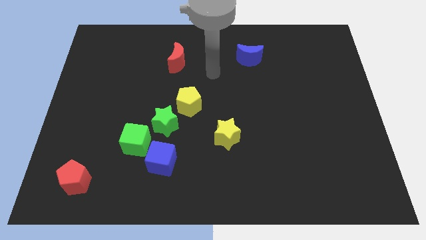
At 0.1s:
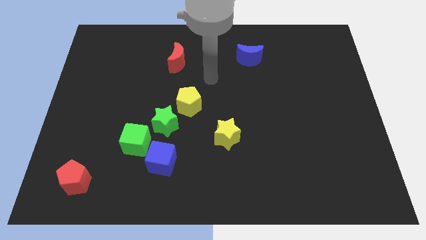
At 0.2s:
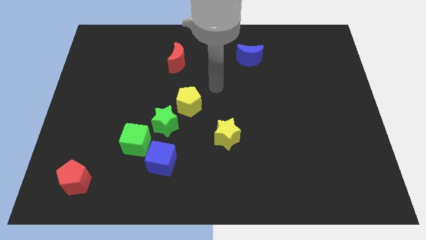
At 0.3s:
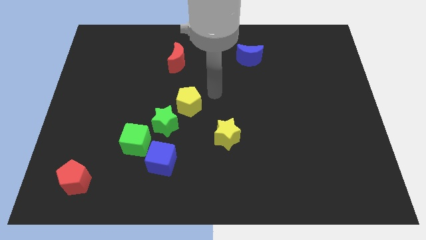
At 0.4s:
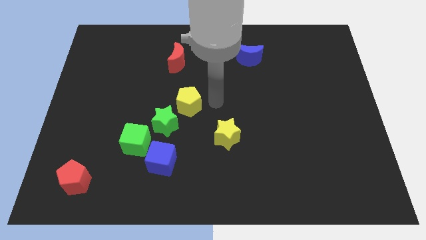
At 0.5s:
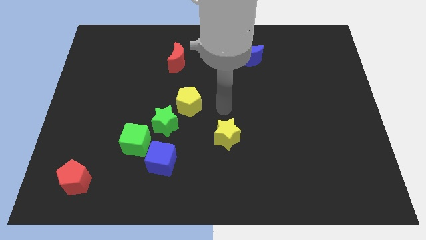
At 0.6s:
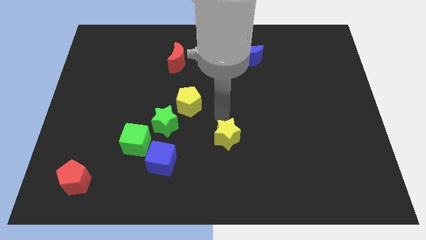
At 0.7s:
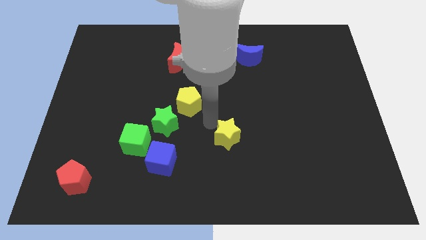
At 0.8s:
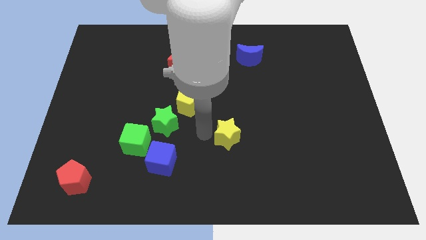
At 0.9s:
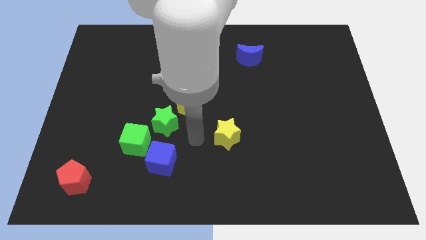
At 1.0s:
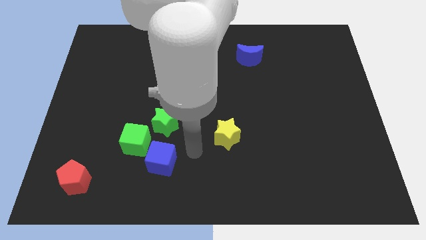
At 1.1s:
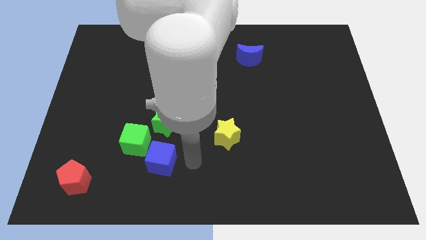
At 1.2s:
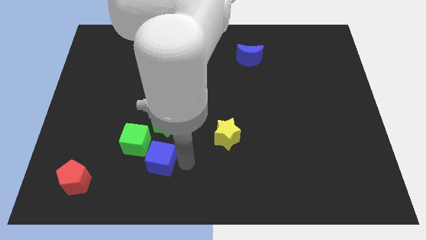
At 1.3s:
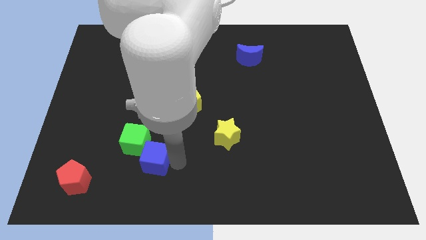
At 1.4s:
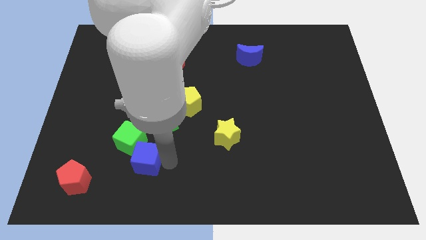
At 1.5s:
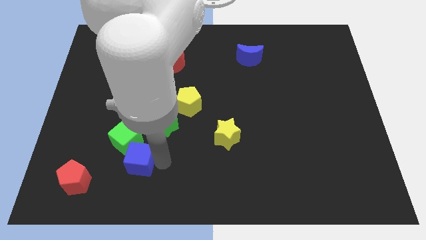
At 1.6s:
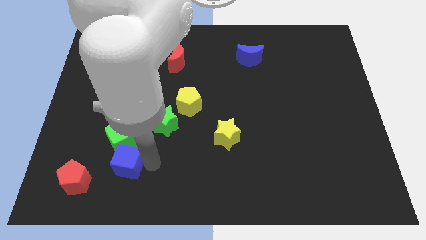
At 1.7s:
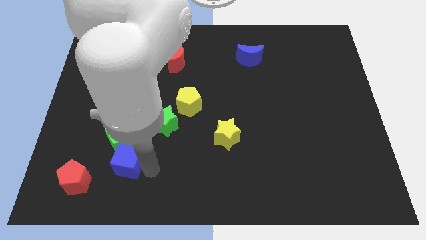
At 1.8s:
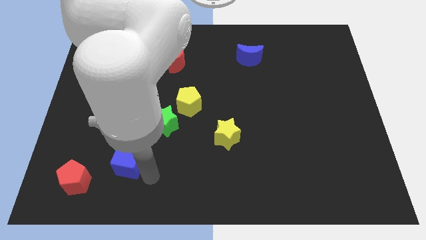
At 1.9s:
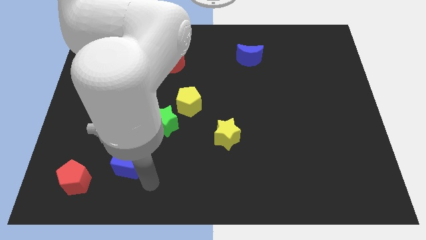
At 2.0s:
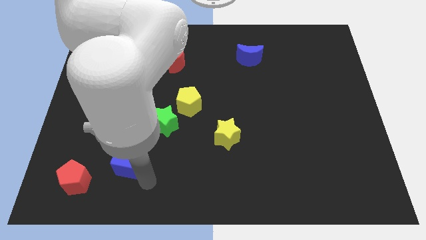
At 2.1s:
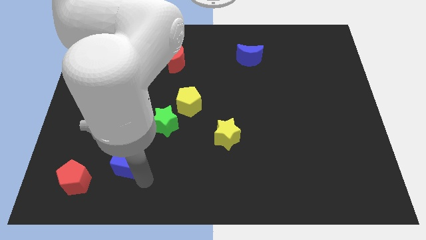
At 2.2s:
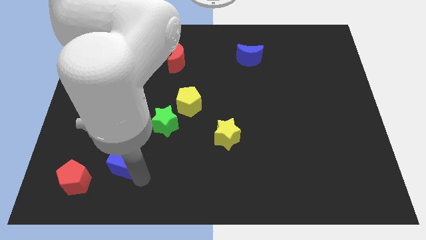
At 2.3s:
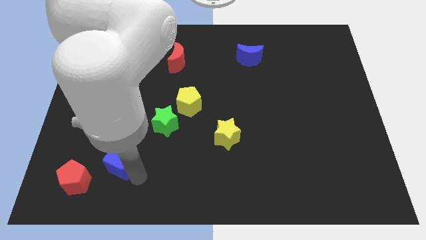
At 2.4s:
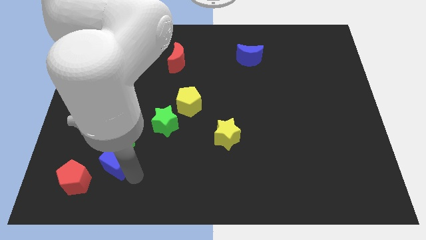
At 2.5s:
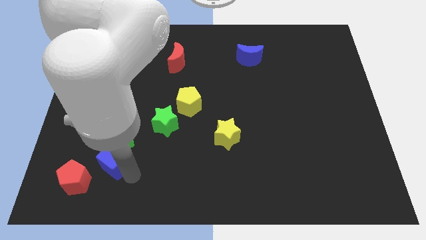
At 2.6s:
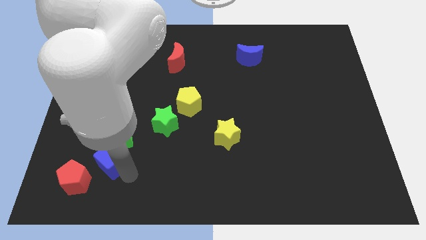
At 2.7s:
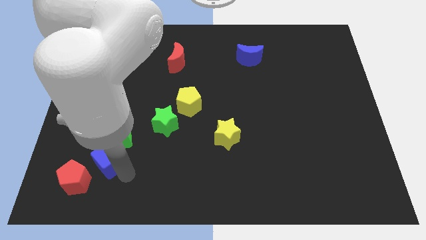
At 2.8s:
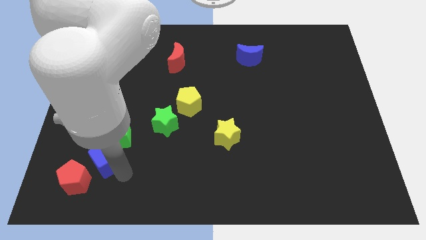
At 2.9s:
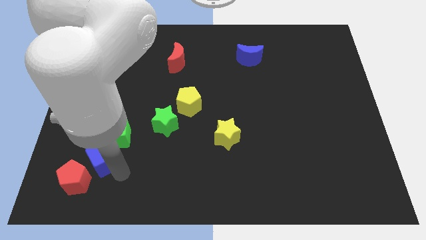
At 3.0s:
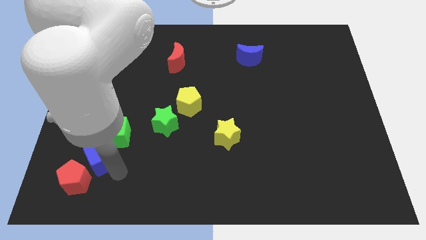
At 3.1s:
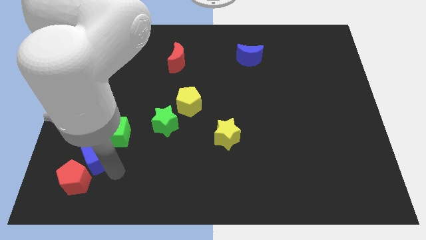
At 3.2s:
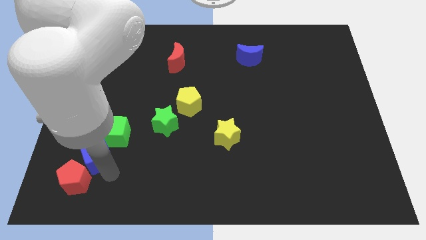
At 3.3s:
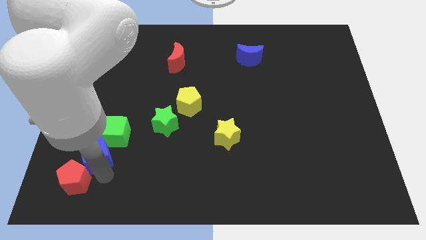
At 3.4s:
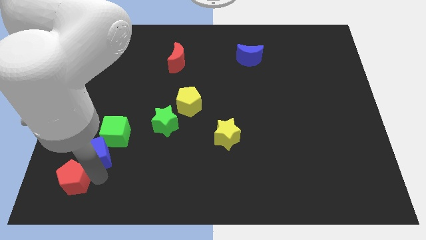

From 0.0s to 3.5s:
slightly move the blue cube diagonally up and to the left

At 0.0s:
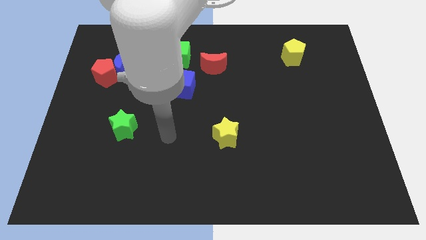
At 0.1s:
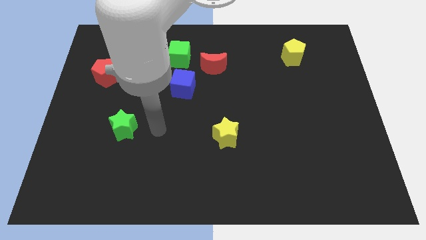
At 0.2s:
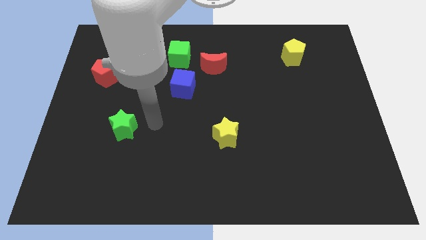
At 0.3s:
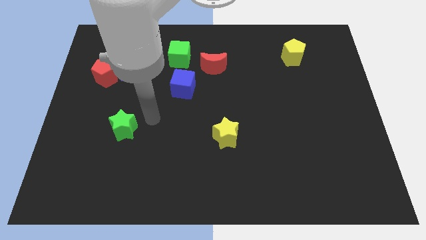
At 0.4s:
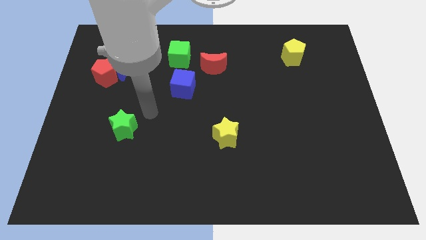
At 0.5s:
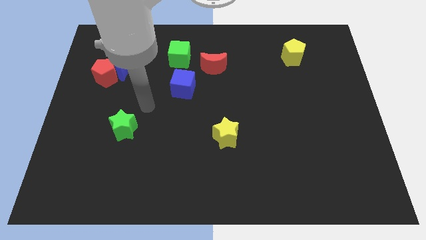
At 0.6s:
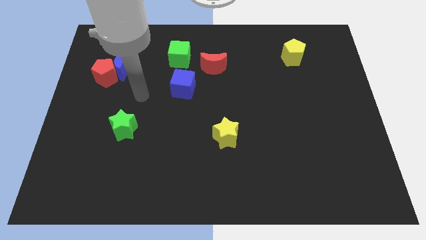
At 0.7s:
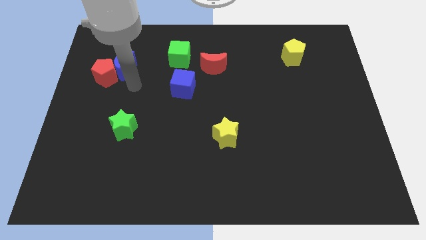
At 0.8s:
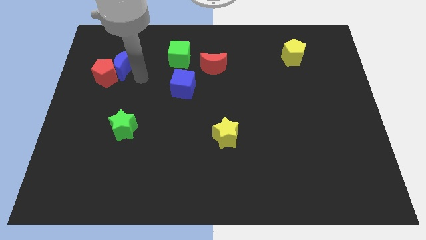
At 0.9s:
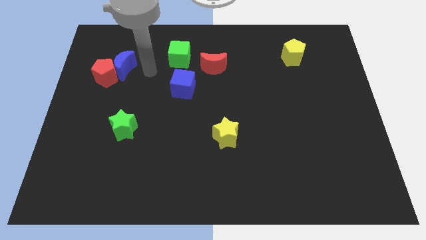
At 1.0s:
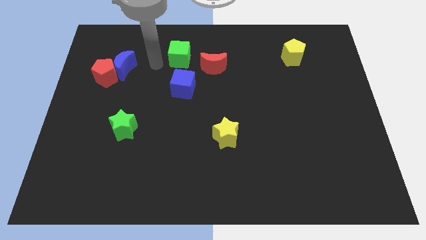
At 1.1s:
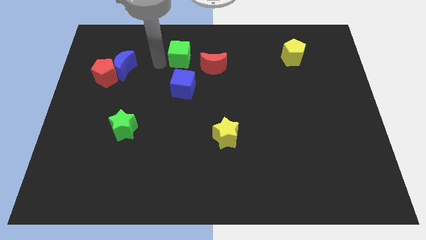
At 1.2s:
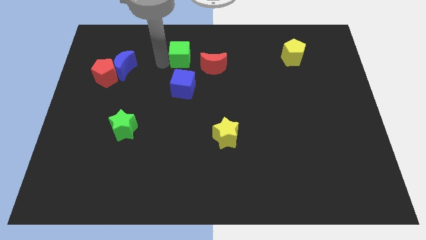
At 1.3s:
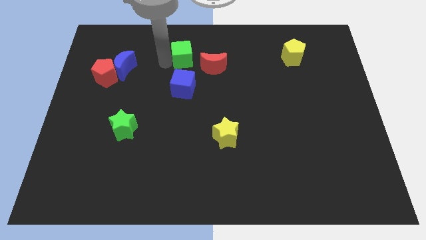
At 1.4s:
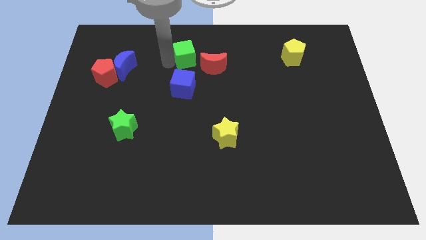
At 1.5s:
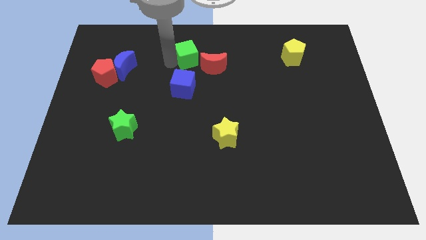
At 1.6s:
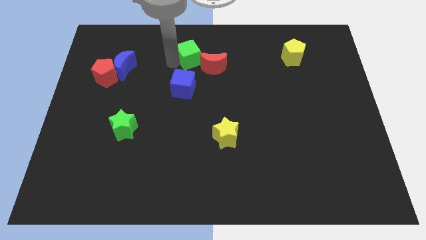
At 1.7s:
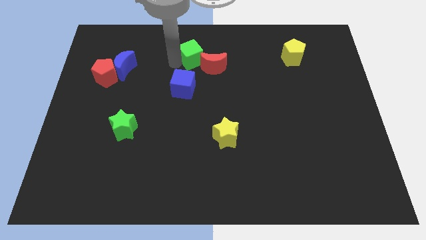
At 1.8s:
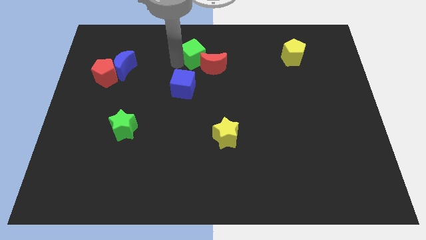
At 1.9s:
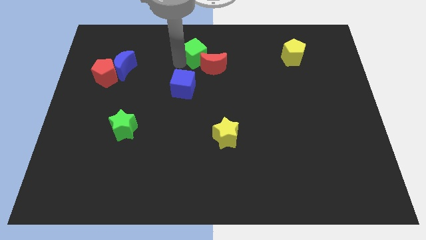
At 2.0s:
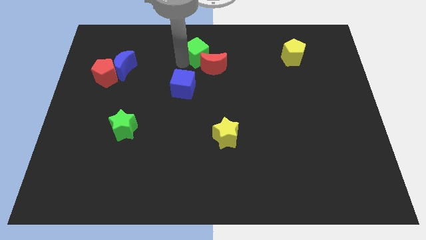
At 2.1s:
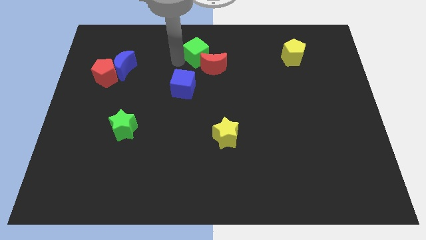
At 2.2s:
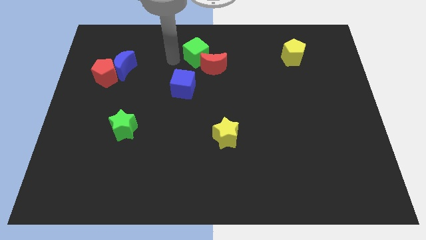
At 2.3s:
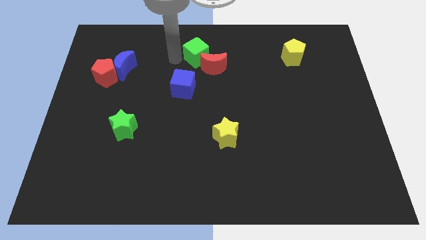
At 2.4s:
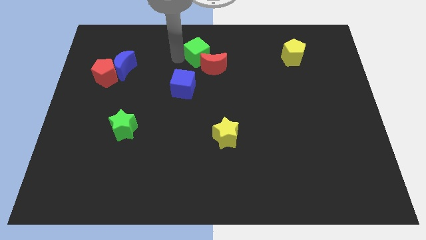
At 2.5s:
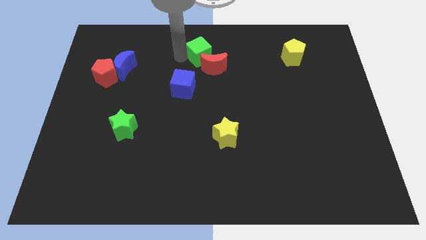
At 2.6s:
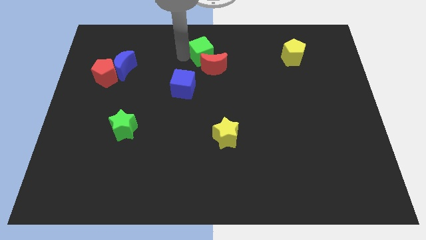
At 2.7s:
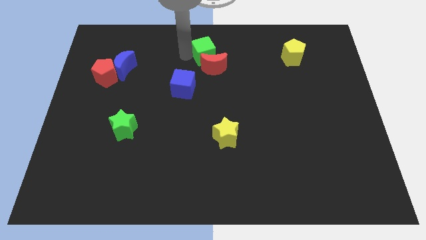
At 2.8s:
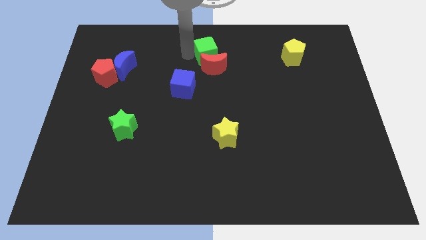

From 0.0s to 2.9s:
slightly move the green cube right

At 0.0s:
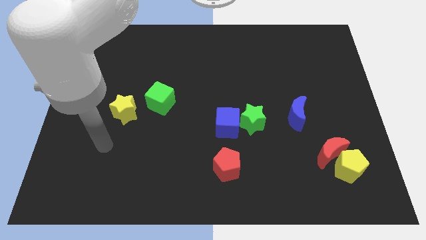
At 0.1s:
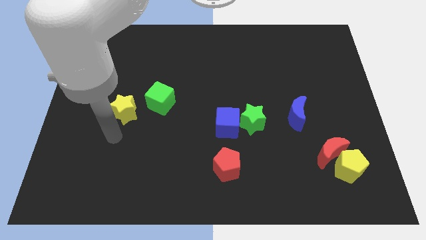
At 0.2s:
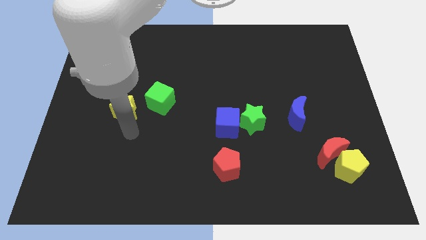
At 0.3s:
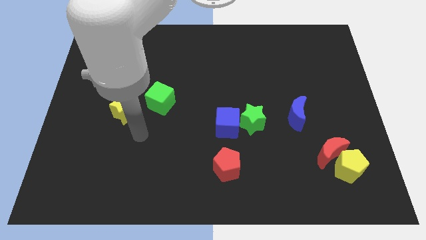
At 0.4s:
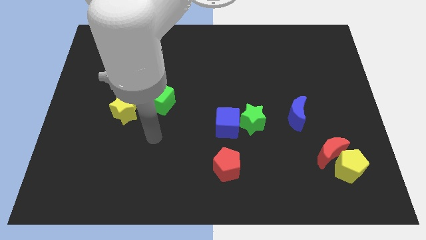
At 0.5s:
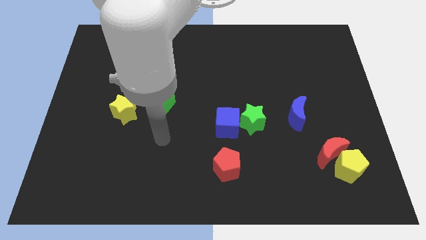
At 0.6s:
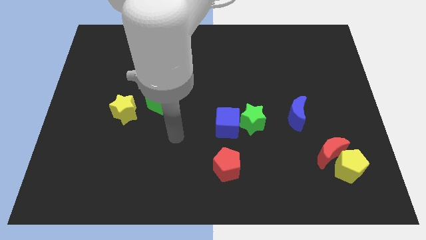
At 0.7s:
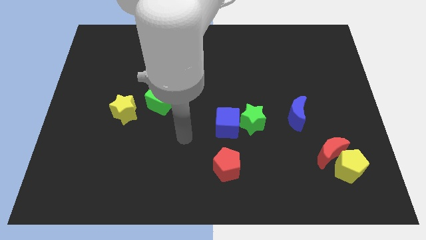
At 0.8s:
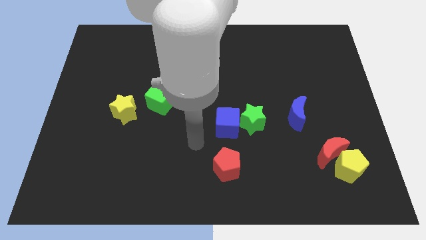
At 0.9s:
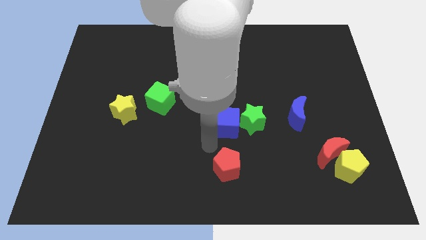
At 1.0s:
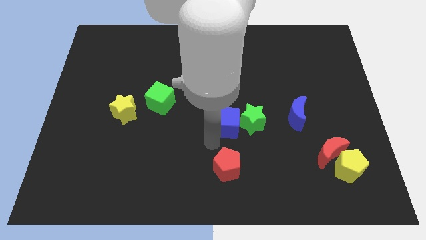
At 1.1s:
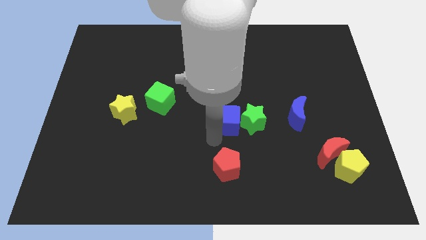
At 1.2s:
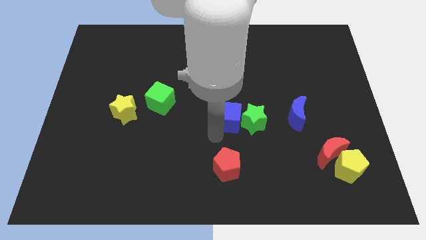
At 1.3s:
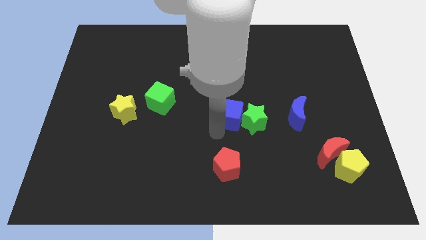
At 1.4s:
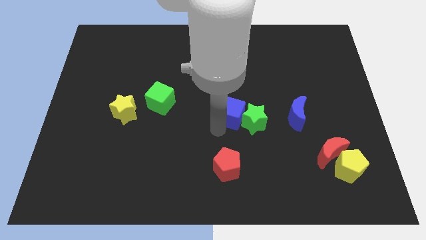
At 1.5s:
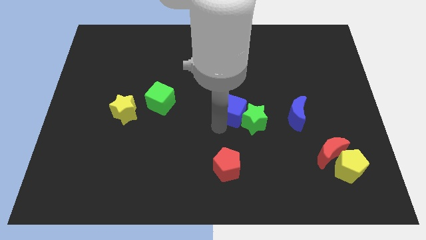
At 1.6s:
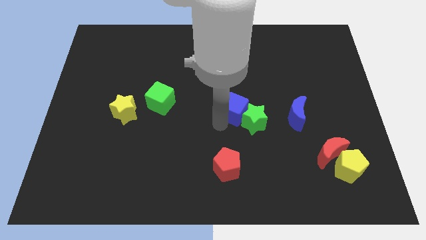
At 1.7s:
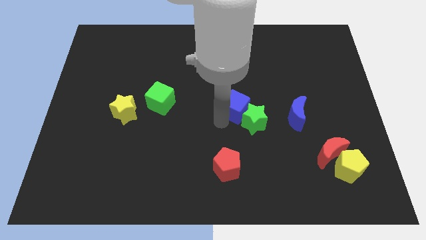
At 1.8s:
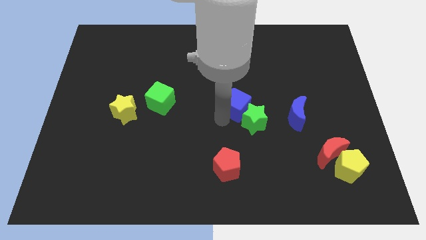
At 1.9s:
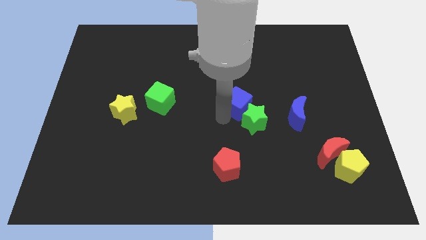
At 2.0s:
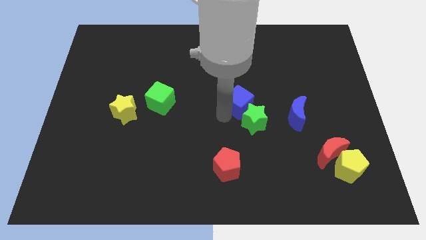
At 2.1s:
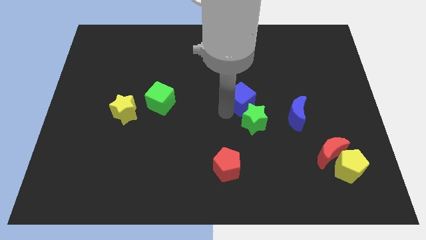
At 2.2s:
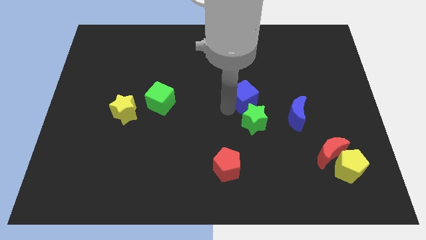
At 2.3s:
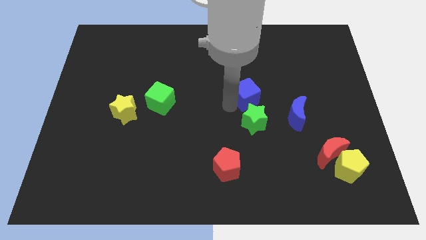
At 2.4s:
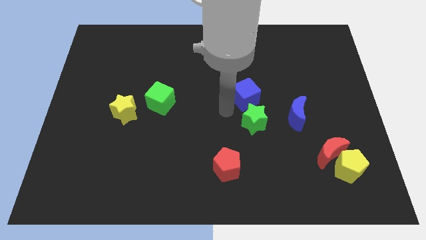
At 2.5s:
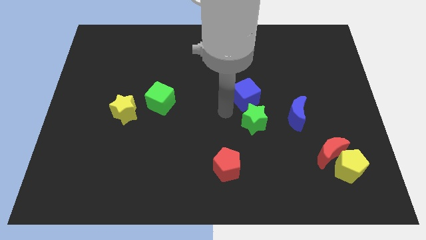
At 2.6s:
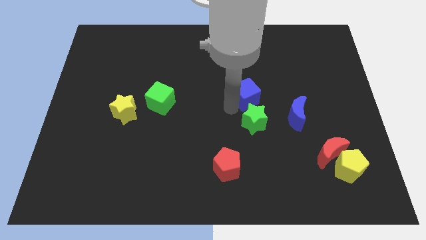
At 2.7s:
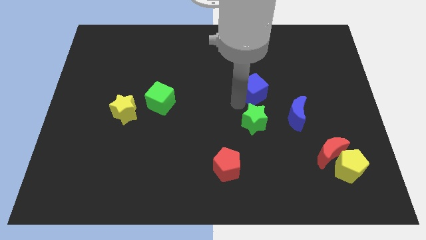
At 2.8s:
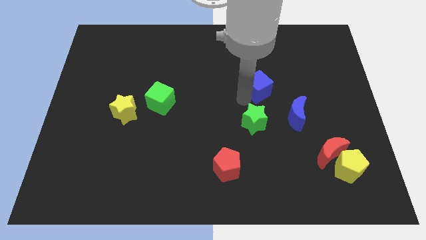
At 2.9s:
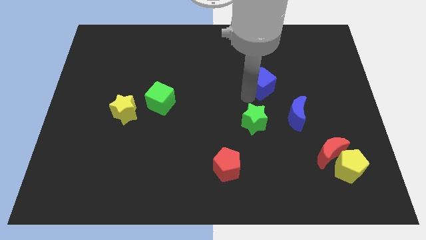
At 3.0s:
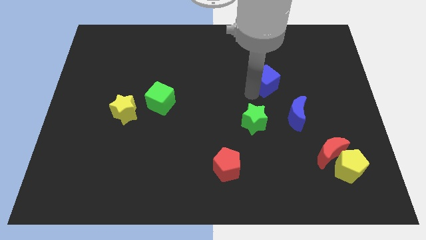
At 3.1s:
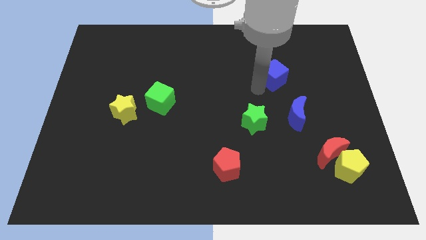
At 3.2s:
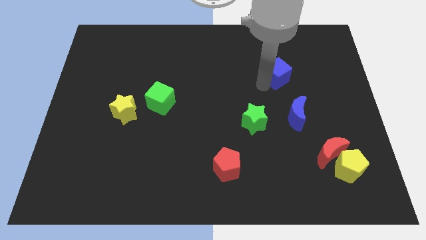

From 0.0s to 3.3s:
move the blue cube up and right diagonally
